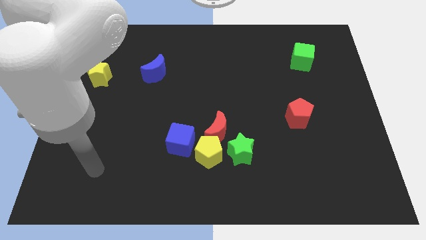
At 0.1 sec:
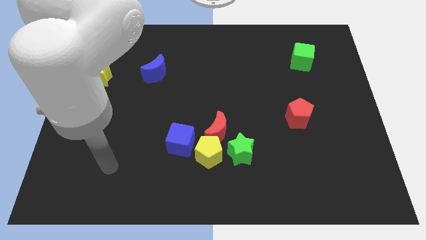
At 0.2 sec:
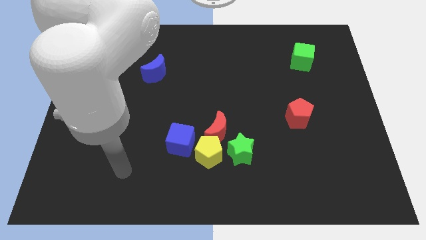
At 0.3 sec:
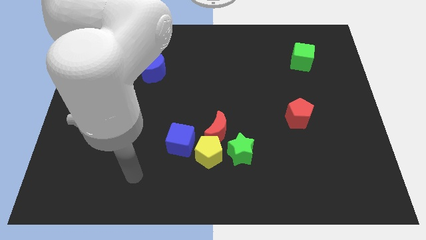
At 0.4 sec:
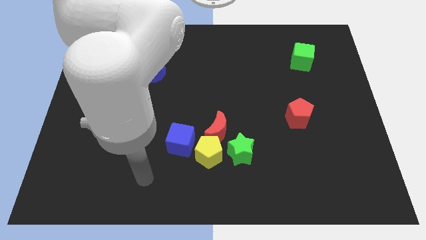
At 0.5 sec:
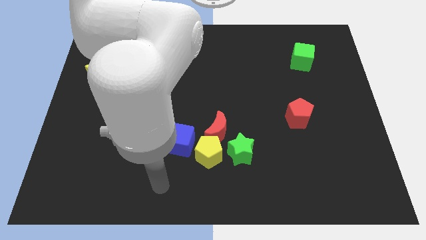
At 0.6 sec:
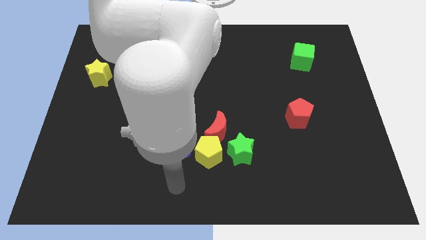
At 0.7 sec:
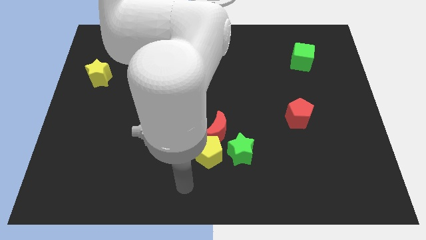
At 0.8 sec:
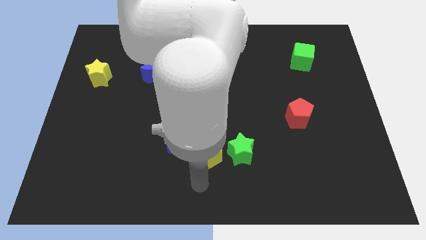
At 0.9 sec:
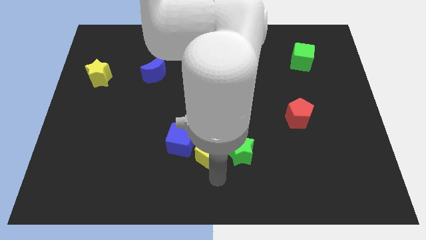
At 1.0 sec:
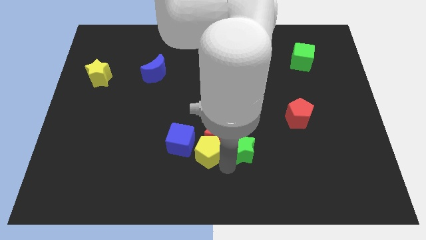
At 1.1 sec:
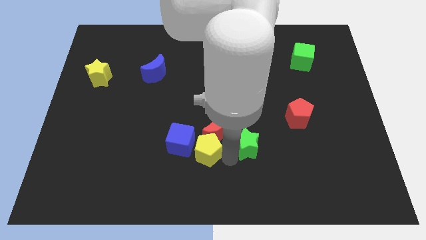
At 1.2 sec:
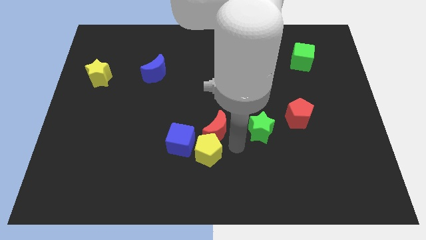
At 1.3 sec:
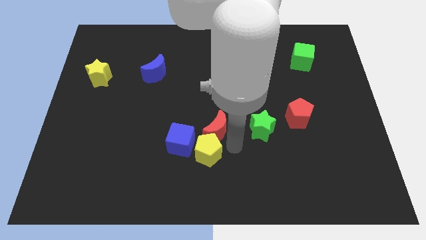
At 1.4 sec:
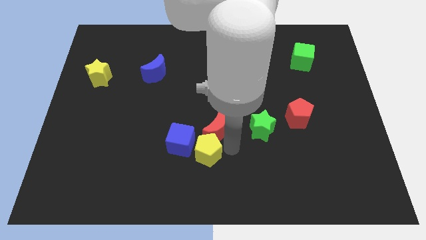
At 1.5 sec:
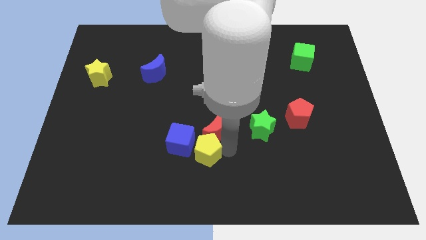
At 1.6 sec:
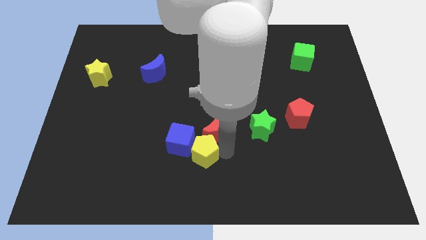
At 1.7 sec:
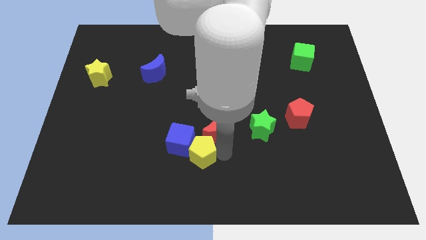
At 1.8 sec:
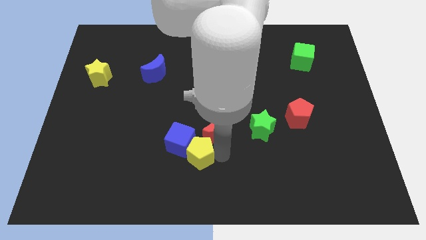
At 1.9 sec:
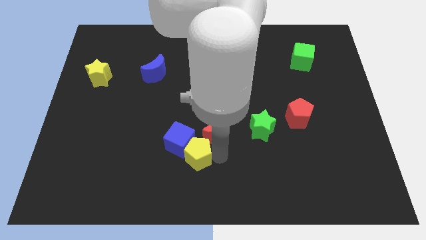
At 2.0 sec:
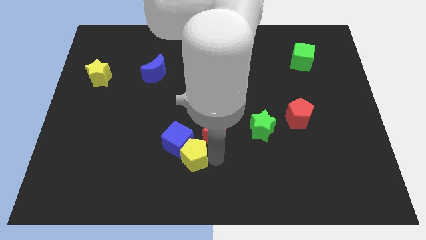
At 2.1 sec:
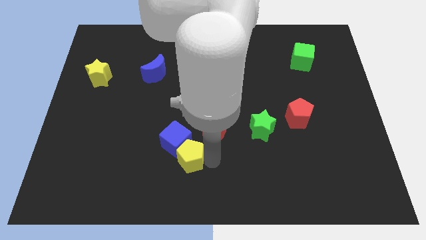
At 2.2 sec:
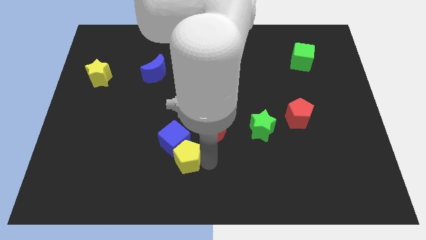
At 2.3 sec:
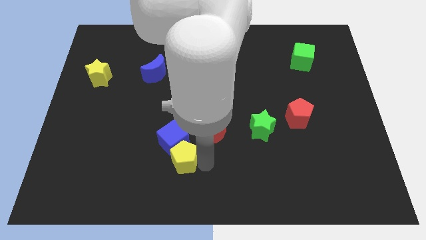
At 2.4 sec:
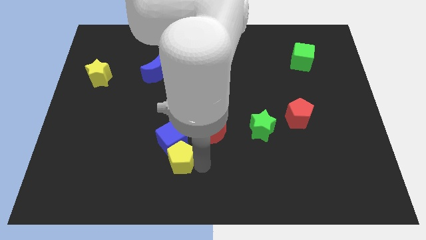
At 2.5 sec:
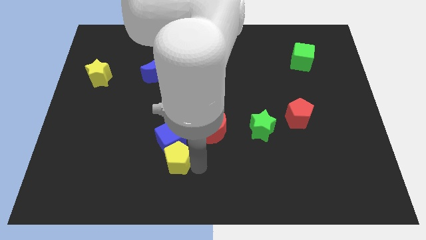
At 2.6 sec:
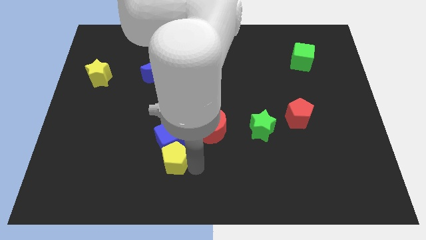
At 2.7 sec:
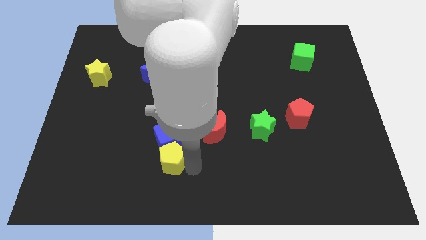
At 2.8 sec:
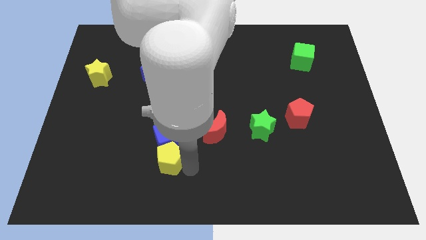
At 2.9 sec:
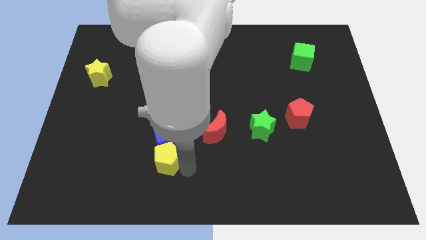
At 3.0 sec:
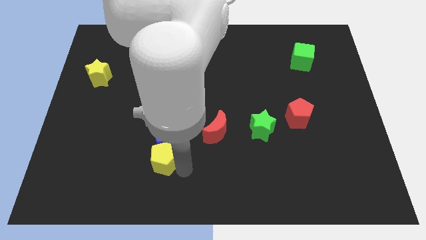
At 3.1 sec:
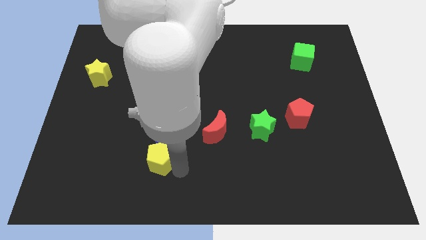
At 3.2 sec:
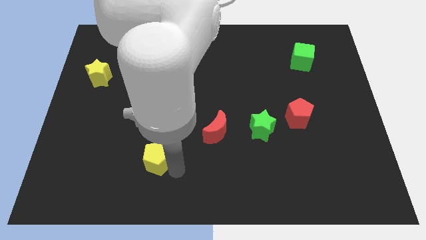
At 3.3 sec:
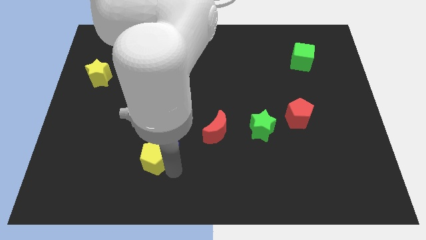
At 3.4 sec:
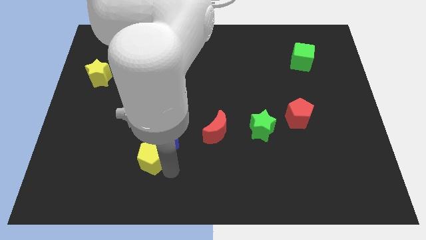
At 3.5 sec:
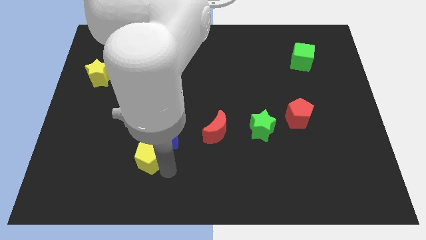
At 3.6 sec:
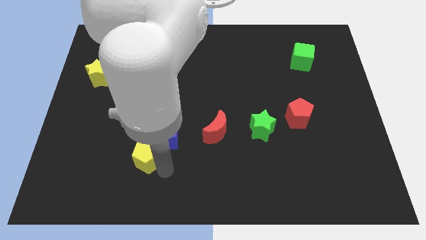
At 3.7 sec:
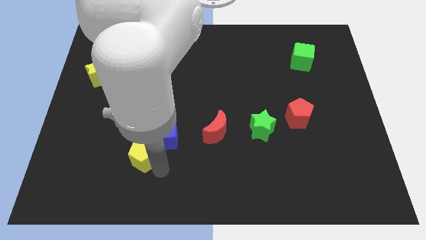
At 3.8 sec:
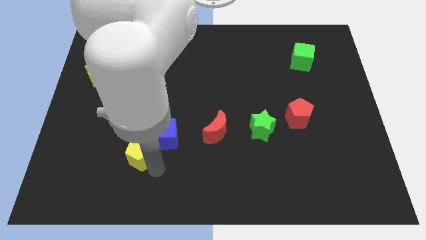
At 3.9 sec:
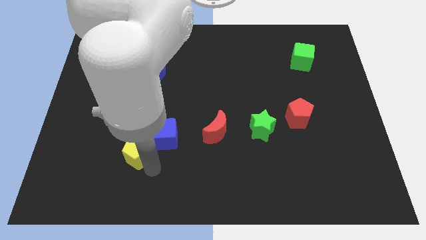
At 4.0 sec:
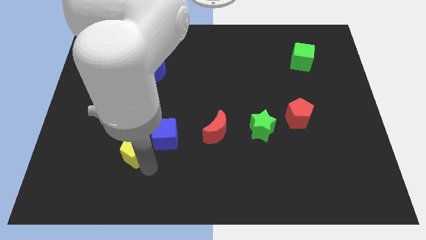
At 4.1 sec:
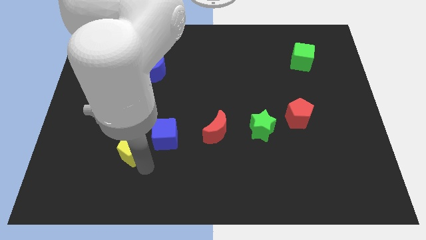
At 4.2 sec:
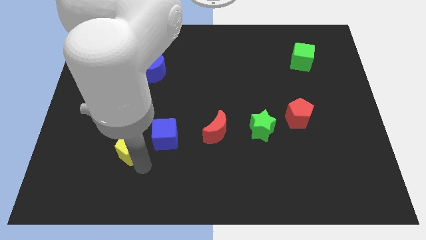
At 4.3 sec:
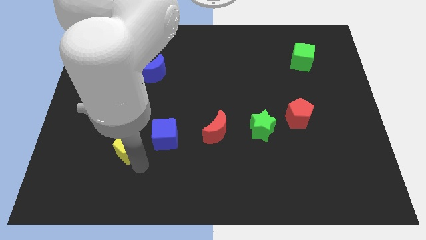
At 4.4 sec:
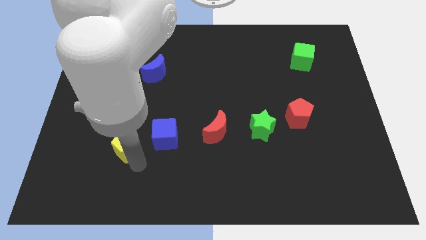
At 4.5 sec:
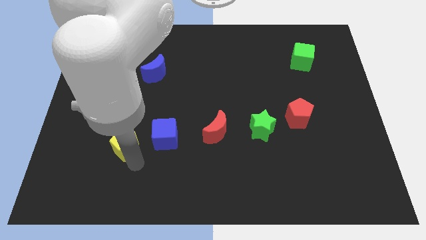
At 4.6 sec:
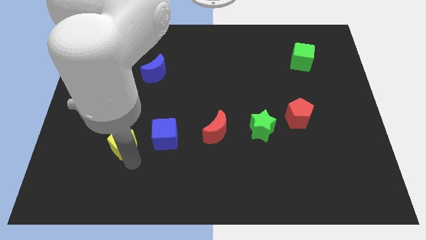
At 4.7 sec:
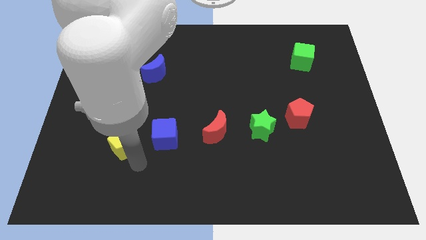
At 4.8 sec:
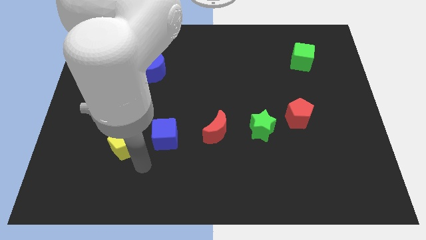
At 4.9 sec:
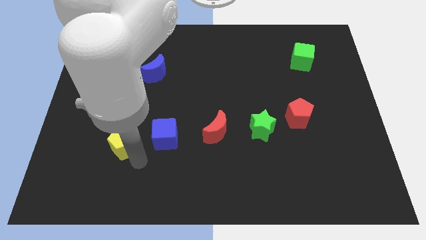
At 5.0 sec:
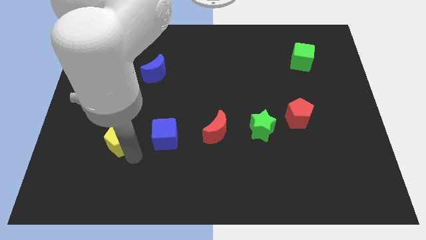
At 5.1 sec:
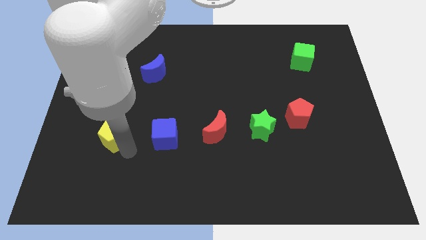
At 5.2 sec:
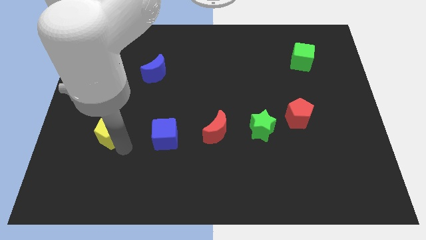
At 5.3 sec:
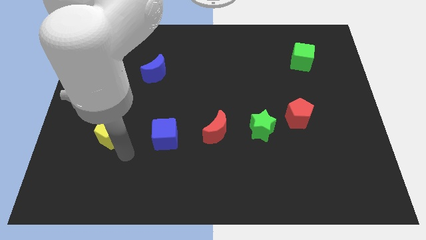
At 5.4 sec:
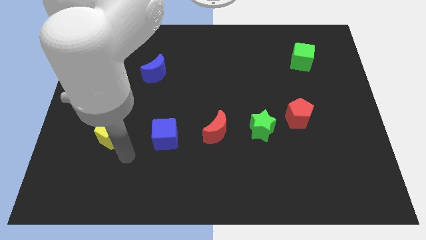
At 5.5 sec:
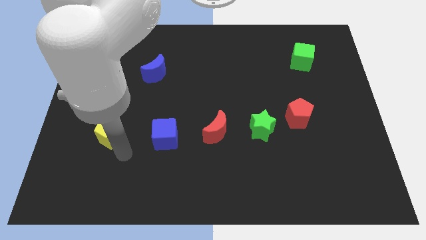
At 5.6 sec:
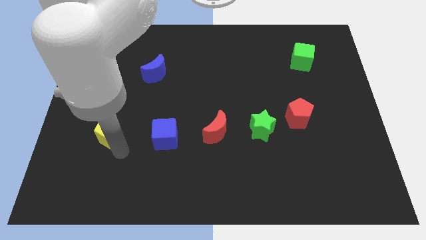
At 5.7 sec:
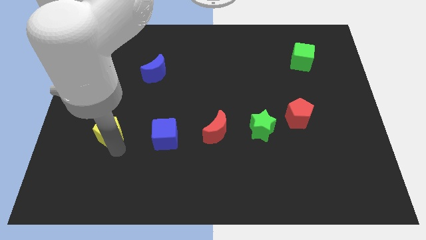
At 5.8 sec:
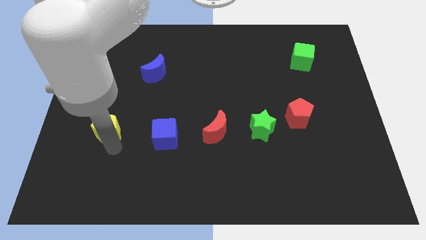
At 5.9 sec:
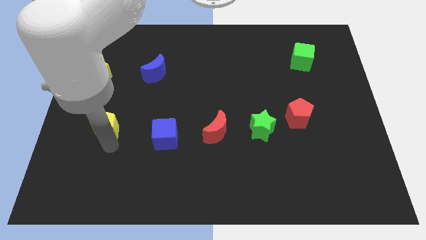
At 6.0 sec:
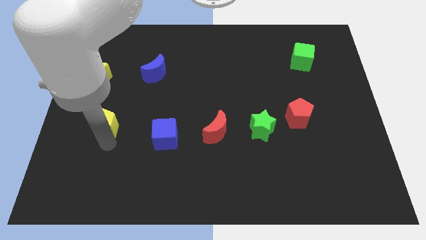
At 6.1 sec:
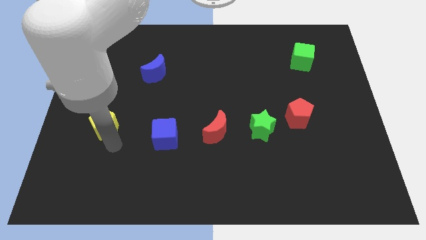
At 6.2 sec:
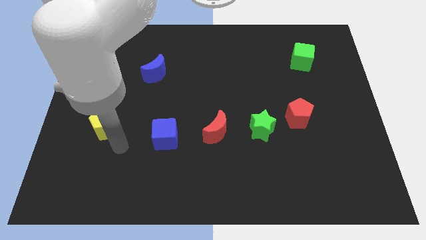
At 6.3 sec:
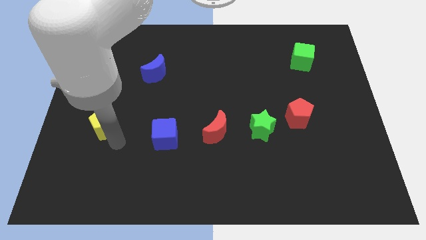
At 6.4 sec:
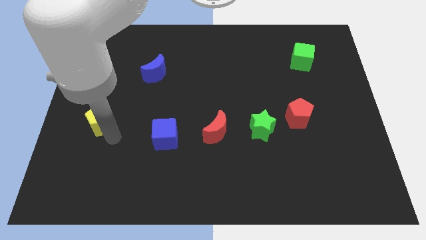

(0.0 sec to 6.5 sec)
move the yellow pentagon to the bottom side of the yellow star

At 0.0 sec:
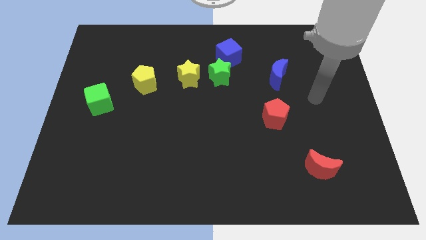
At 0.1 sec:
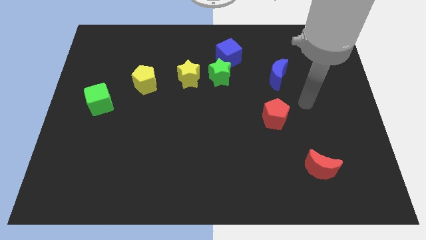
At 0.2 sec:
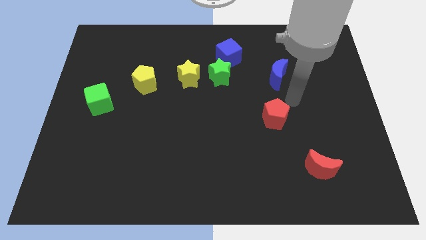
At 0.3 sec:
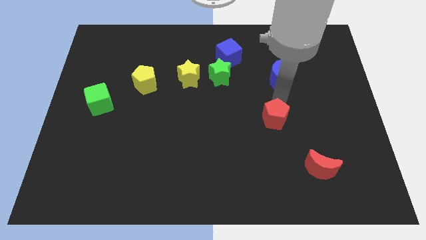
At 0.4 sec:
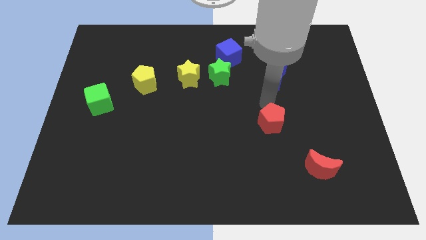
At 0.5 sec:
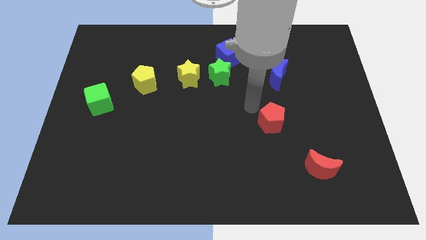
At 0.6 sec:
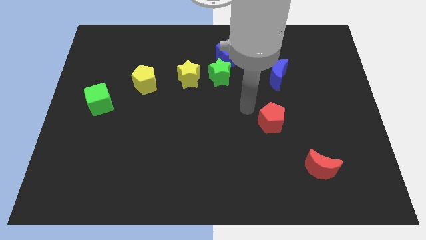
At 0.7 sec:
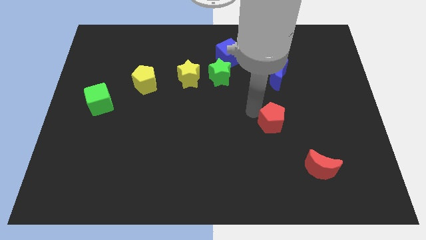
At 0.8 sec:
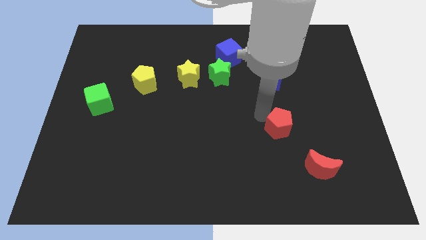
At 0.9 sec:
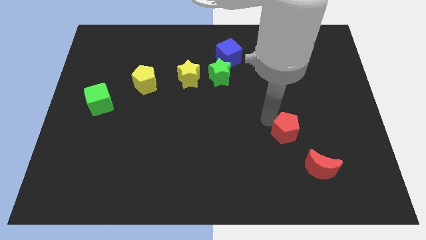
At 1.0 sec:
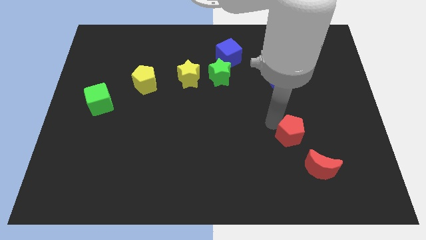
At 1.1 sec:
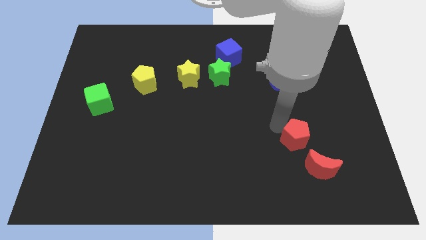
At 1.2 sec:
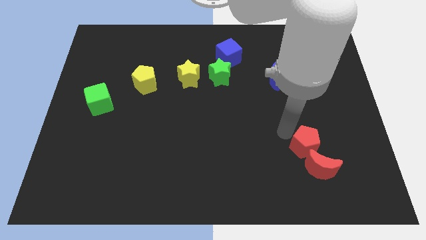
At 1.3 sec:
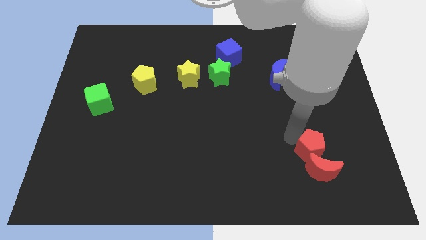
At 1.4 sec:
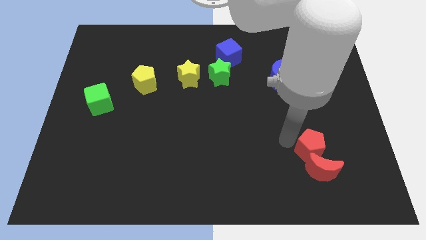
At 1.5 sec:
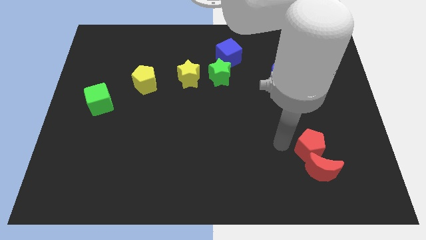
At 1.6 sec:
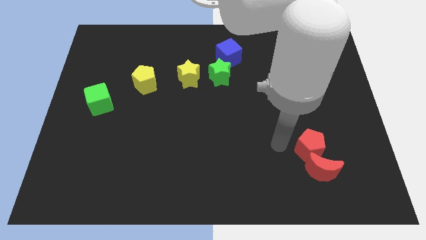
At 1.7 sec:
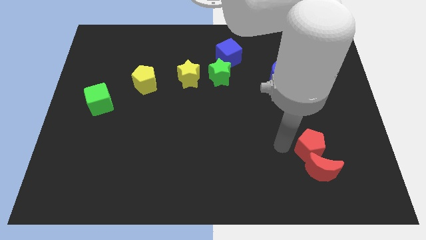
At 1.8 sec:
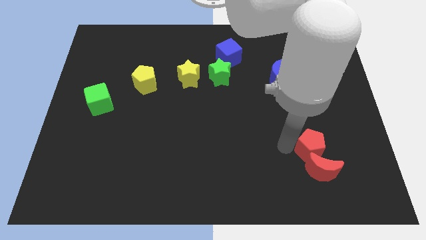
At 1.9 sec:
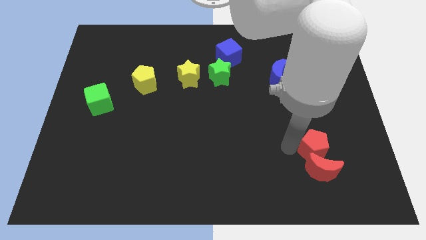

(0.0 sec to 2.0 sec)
slide the red pentagon to the top right side of the red moon
